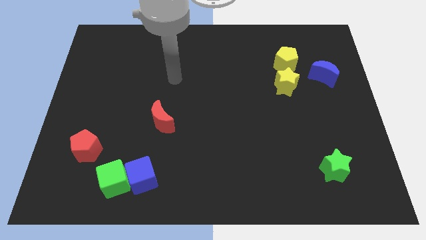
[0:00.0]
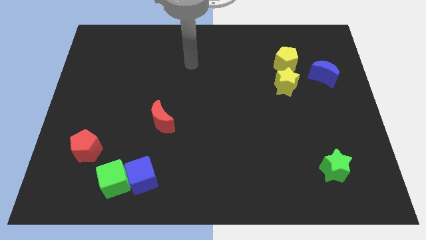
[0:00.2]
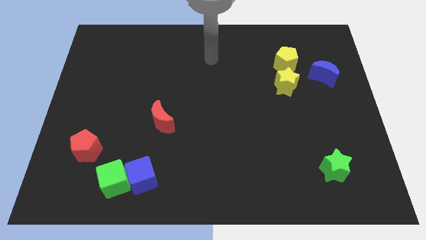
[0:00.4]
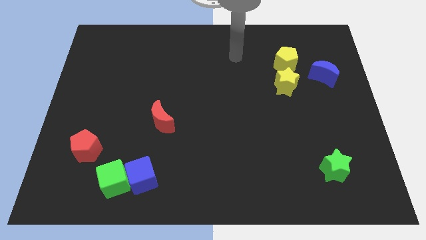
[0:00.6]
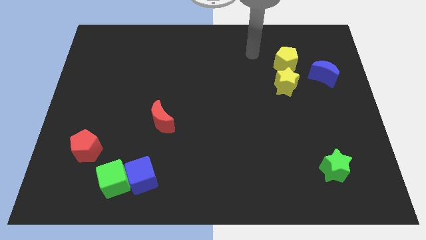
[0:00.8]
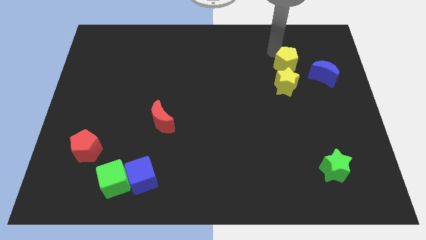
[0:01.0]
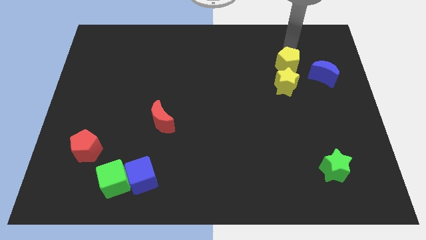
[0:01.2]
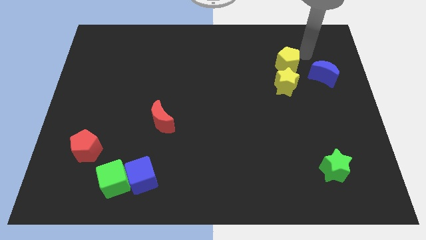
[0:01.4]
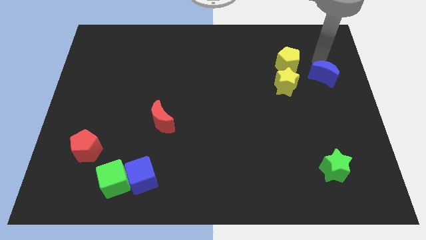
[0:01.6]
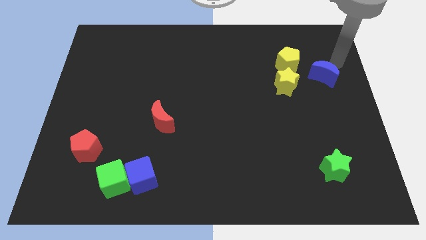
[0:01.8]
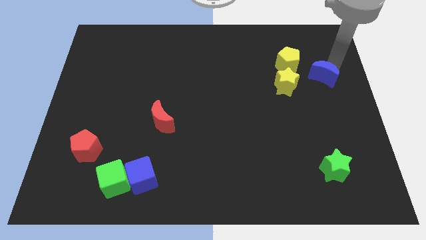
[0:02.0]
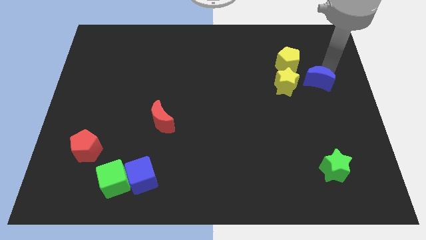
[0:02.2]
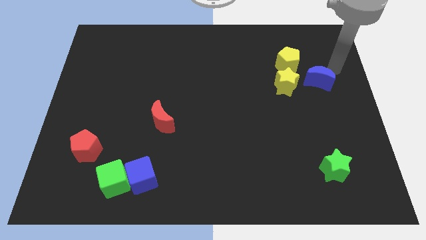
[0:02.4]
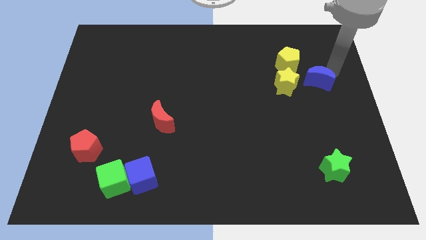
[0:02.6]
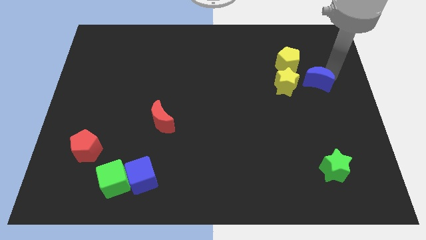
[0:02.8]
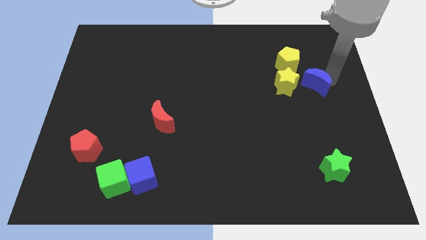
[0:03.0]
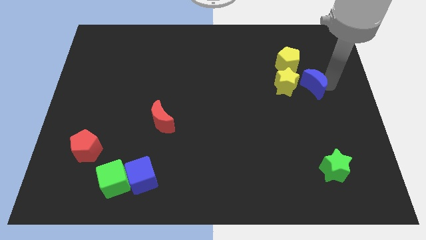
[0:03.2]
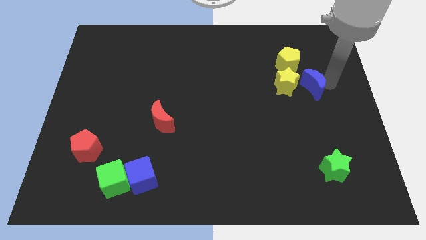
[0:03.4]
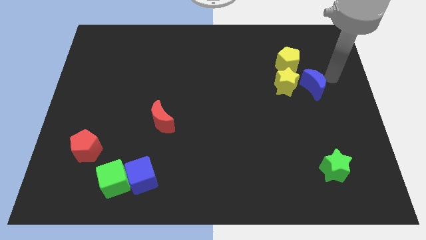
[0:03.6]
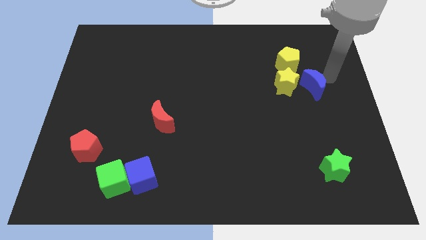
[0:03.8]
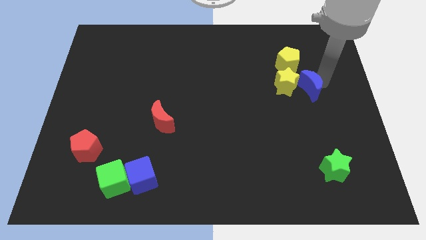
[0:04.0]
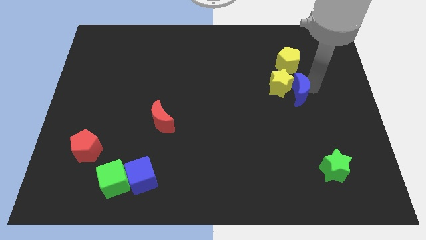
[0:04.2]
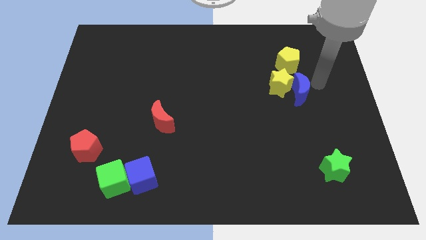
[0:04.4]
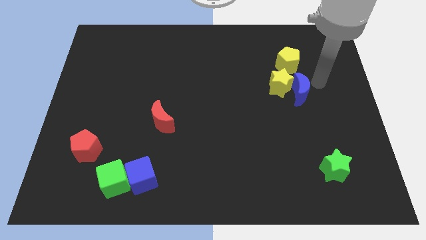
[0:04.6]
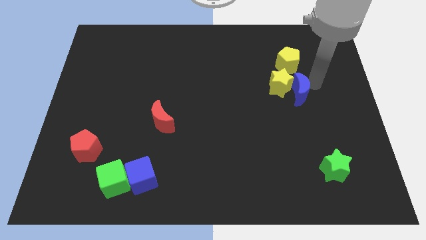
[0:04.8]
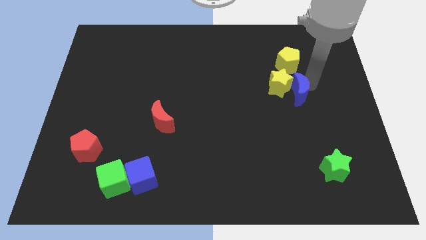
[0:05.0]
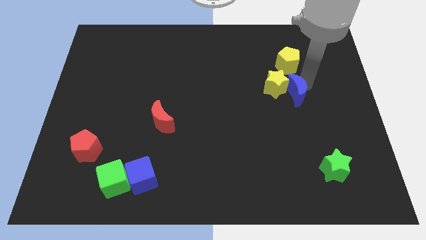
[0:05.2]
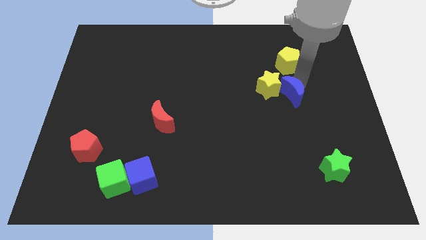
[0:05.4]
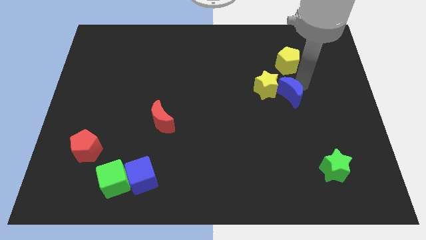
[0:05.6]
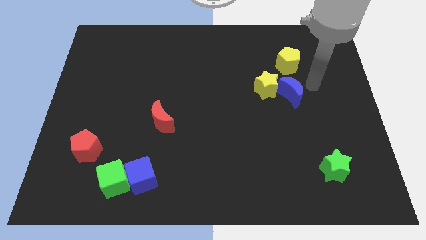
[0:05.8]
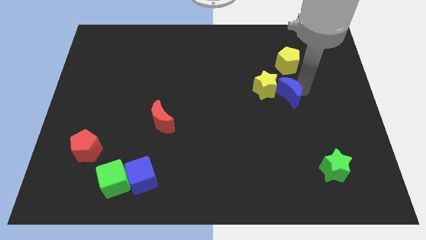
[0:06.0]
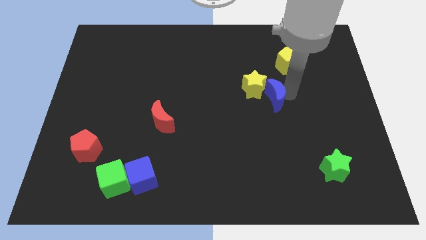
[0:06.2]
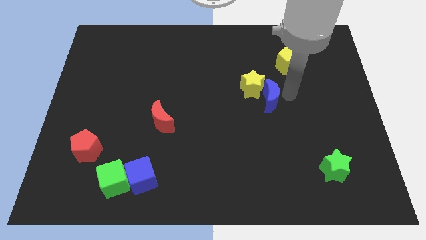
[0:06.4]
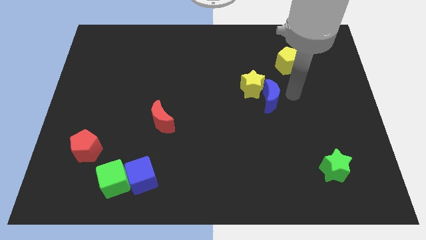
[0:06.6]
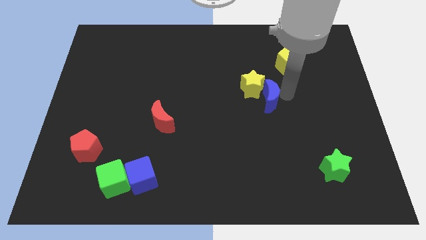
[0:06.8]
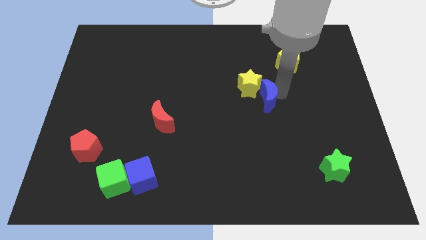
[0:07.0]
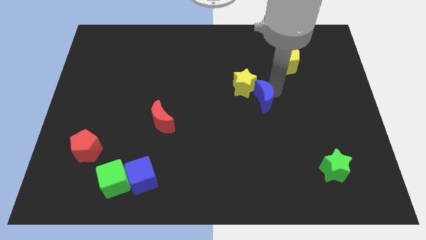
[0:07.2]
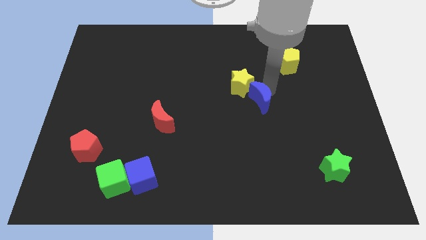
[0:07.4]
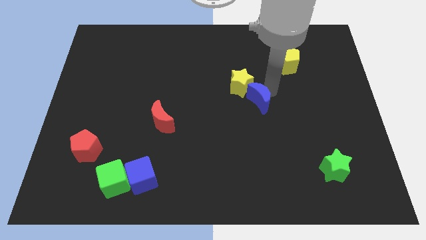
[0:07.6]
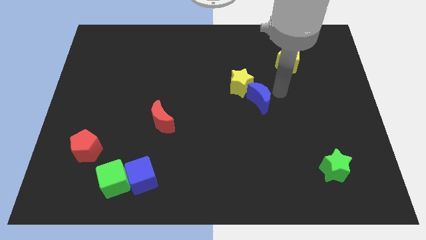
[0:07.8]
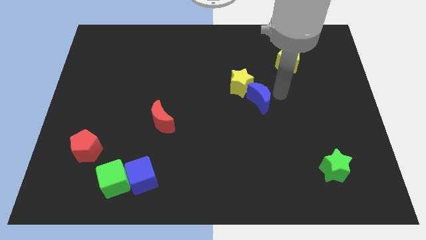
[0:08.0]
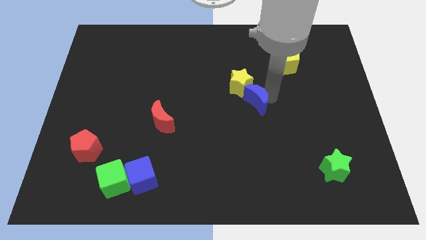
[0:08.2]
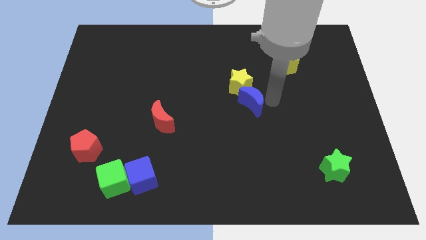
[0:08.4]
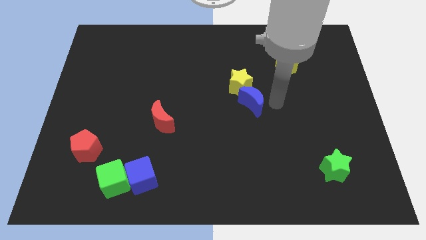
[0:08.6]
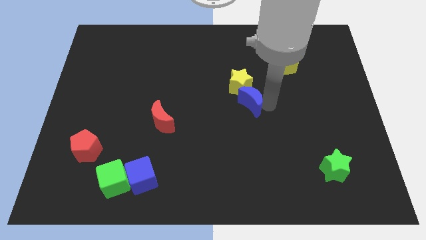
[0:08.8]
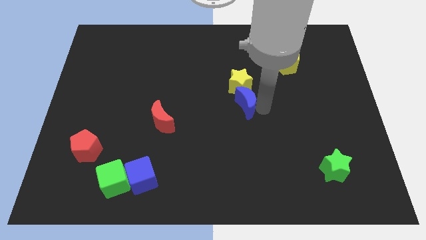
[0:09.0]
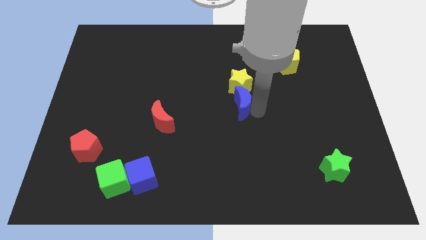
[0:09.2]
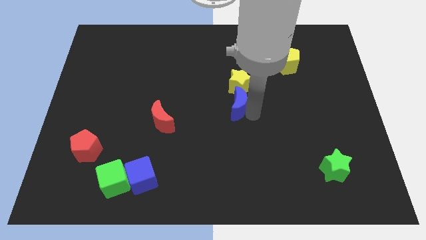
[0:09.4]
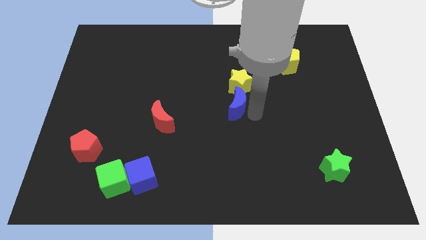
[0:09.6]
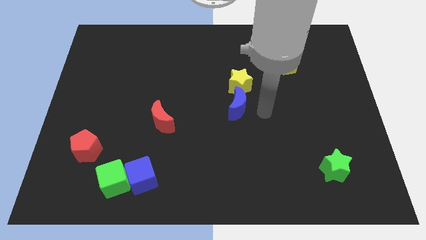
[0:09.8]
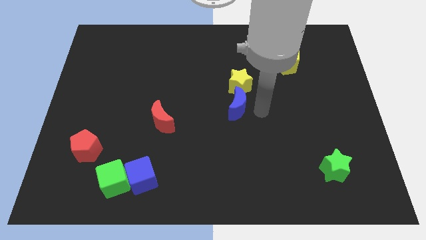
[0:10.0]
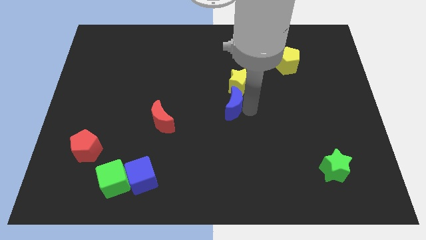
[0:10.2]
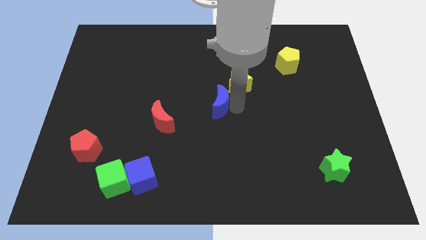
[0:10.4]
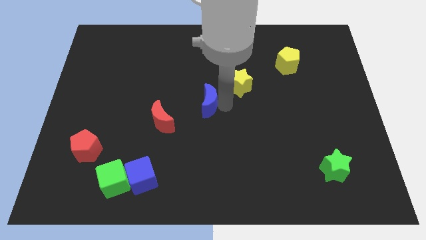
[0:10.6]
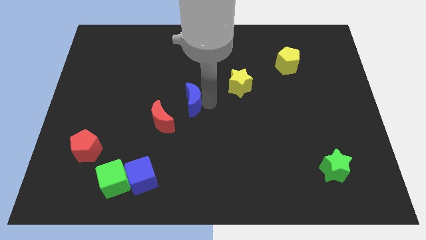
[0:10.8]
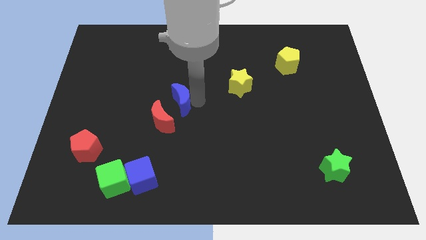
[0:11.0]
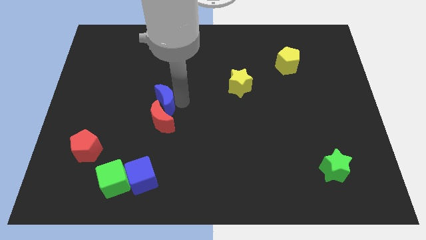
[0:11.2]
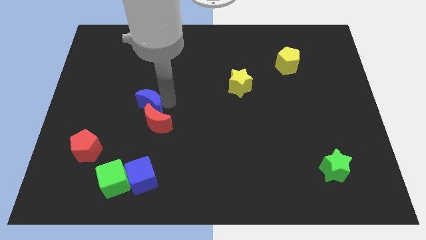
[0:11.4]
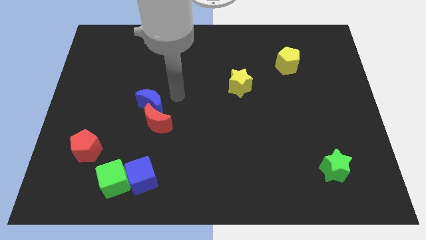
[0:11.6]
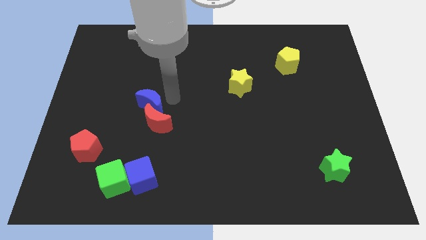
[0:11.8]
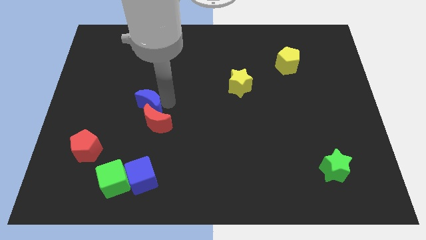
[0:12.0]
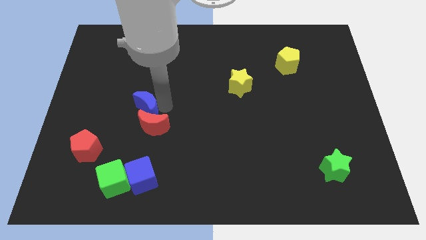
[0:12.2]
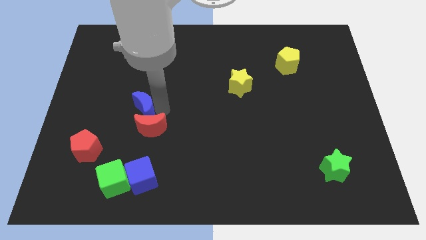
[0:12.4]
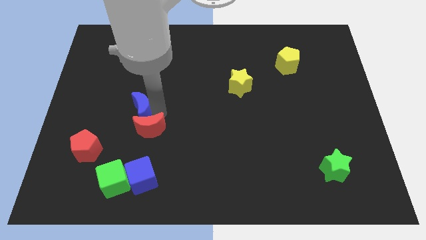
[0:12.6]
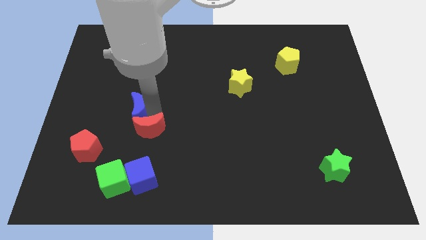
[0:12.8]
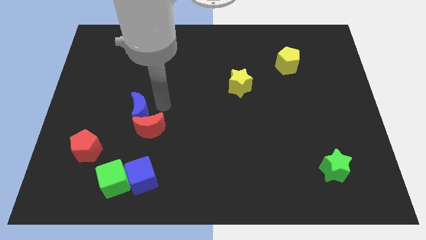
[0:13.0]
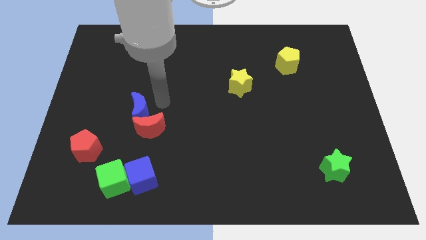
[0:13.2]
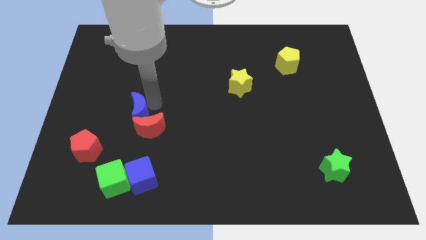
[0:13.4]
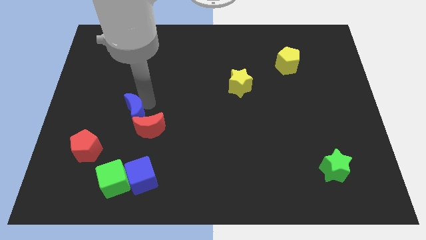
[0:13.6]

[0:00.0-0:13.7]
put the blue moon to the left side of the red moon

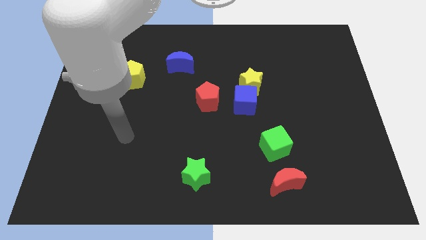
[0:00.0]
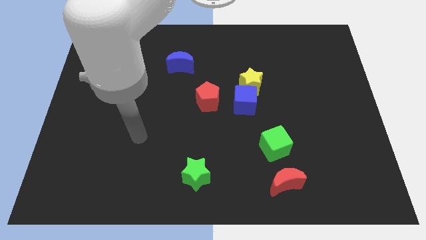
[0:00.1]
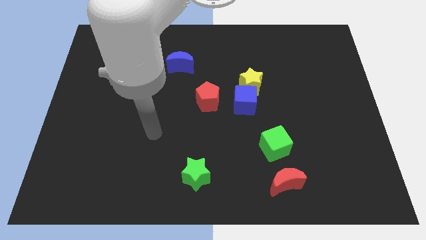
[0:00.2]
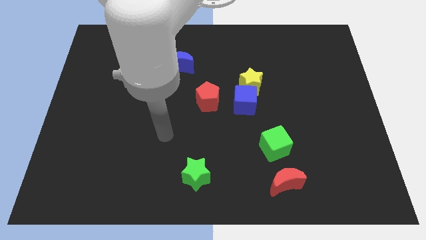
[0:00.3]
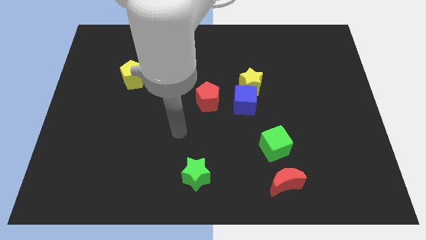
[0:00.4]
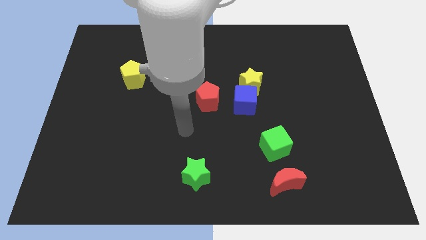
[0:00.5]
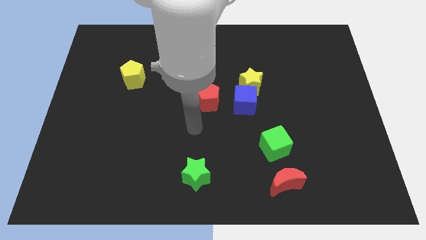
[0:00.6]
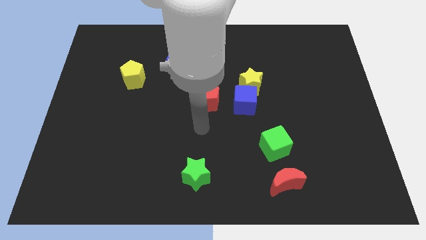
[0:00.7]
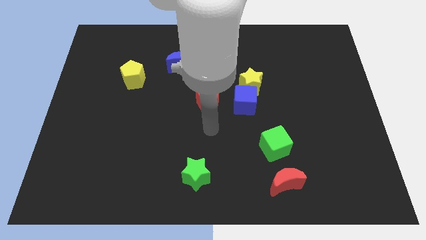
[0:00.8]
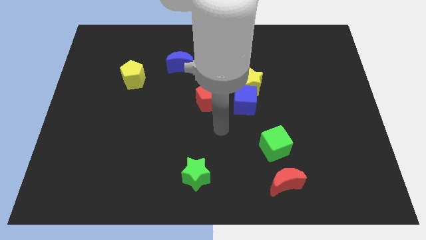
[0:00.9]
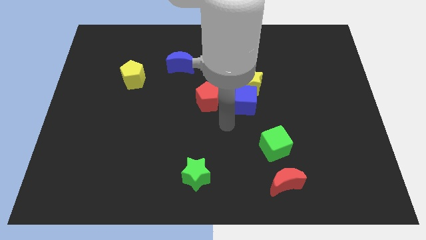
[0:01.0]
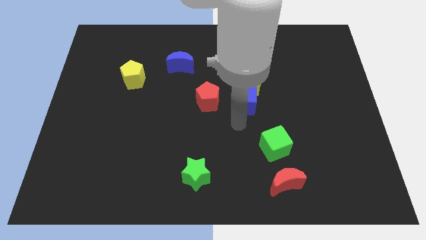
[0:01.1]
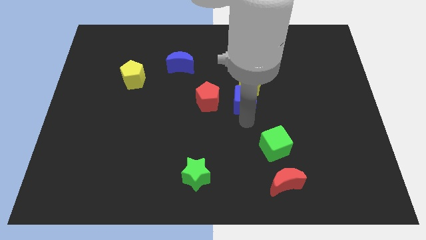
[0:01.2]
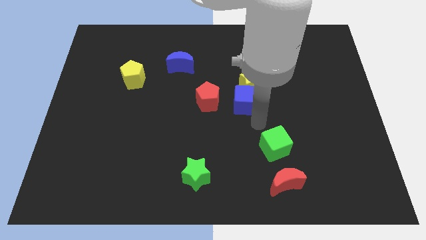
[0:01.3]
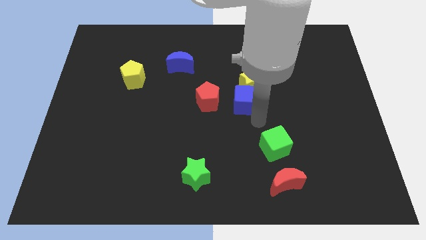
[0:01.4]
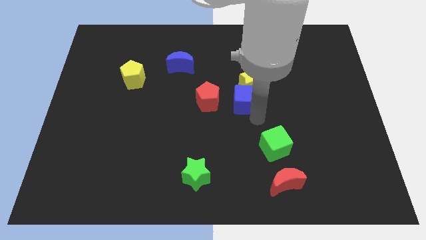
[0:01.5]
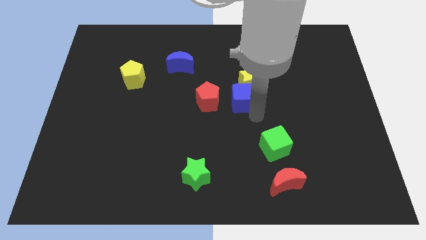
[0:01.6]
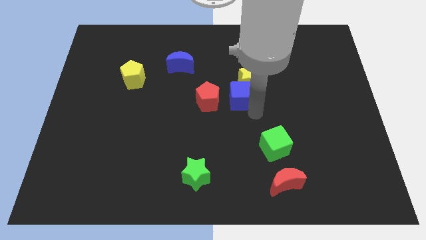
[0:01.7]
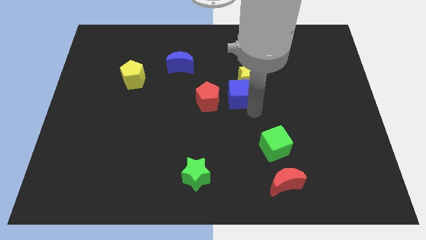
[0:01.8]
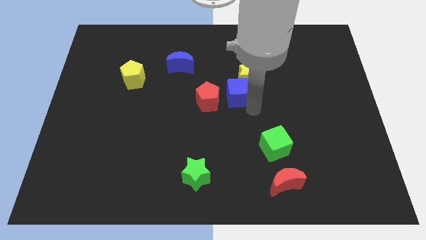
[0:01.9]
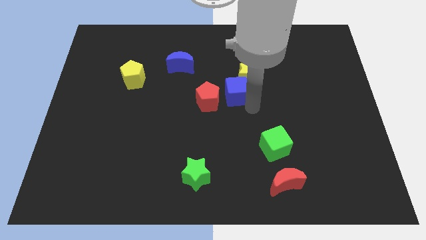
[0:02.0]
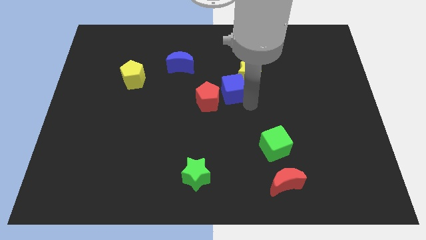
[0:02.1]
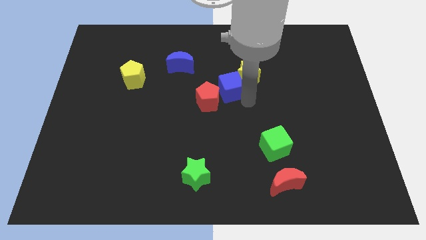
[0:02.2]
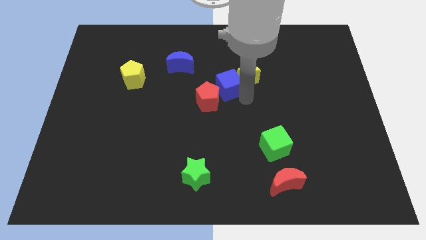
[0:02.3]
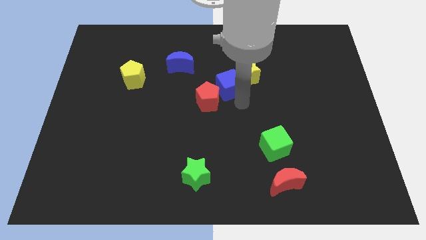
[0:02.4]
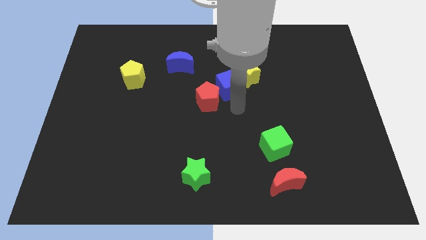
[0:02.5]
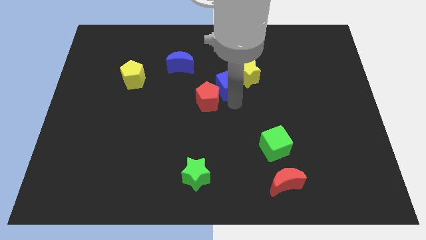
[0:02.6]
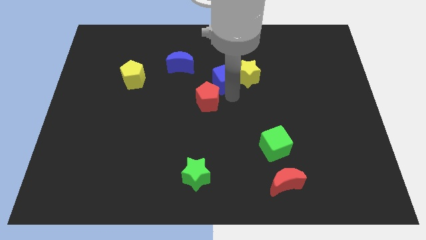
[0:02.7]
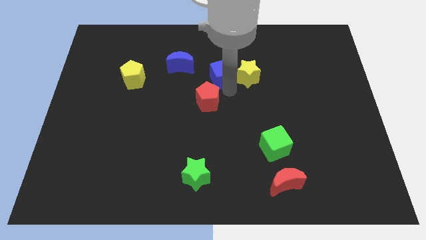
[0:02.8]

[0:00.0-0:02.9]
slide the blue cube right of the blue moon
